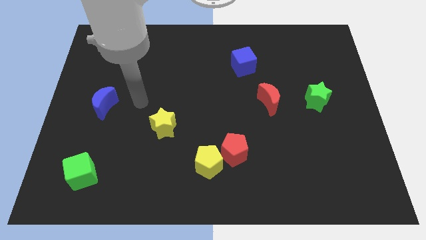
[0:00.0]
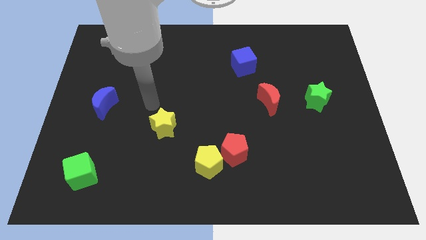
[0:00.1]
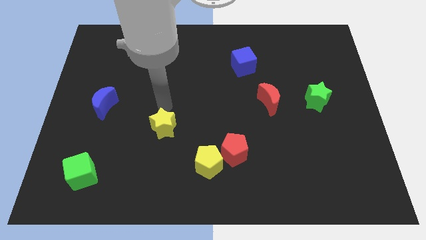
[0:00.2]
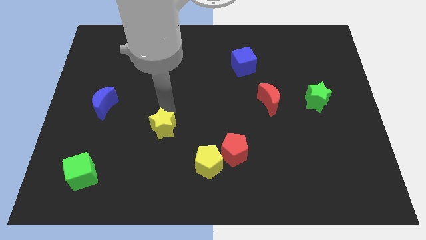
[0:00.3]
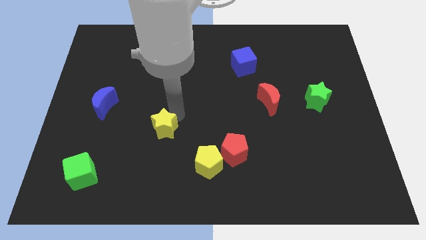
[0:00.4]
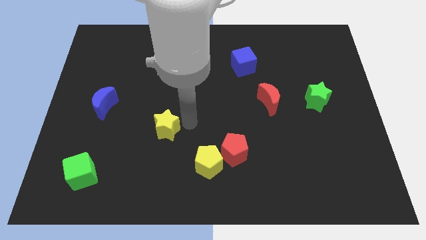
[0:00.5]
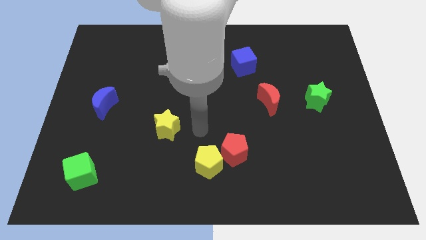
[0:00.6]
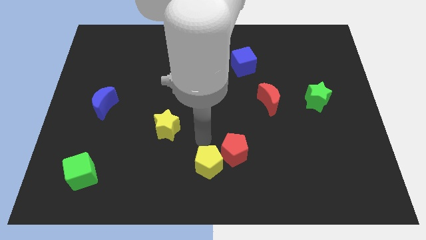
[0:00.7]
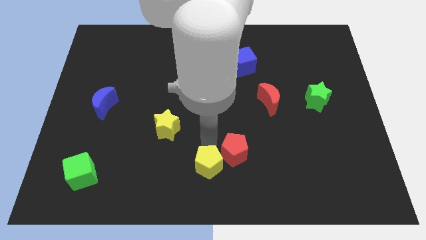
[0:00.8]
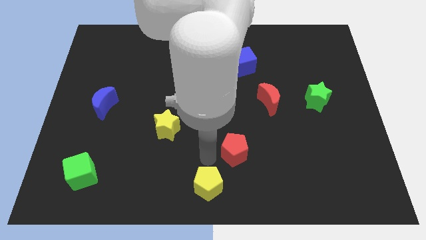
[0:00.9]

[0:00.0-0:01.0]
move the red pentagon away from the yellow pentagon

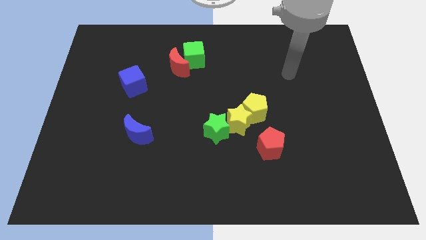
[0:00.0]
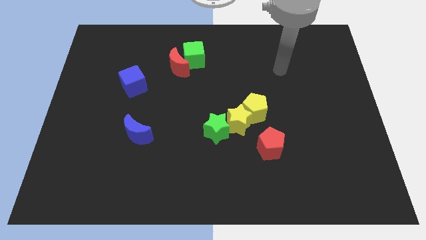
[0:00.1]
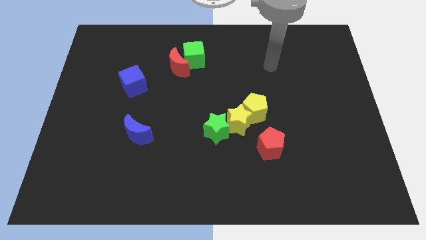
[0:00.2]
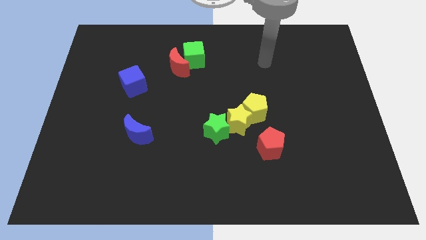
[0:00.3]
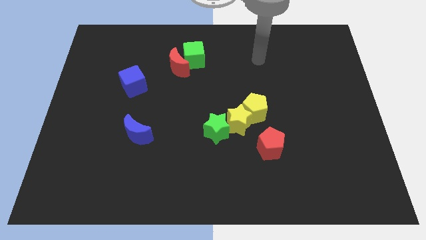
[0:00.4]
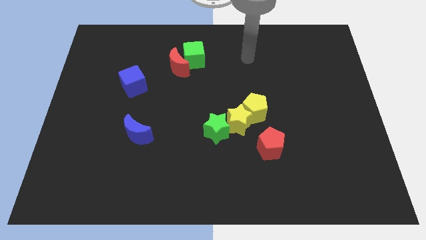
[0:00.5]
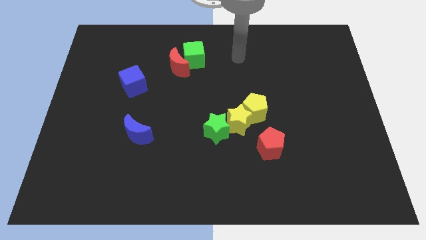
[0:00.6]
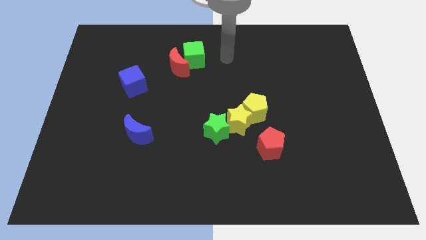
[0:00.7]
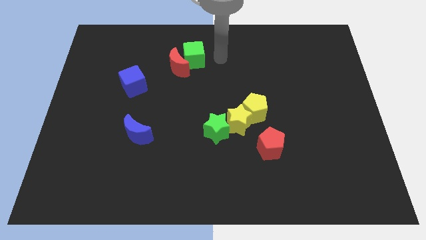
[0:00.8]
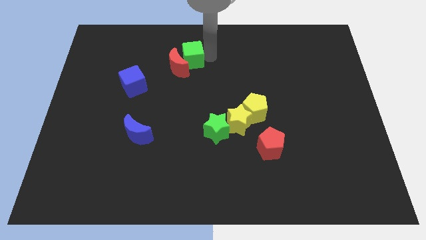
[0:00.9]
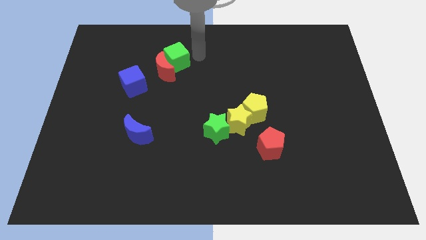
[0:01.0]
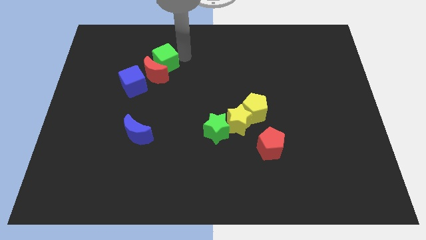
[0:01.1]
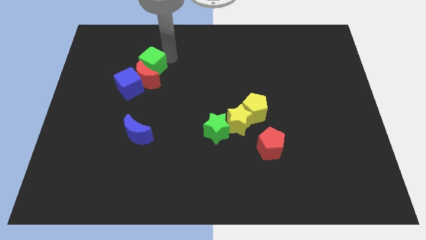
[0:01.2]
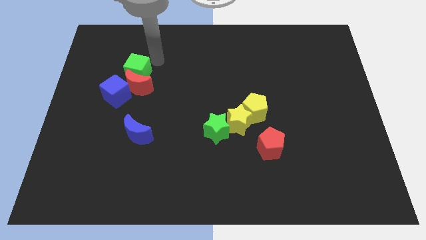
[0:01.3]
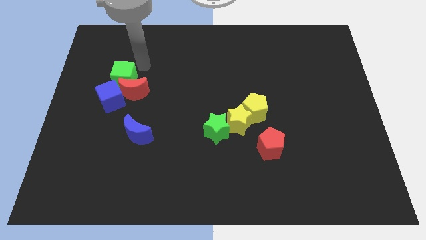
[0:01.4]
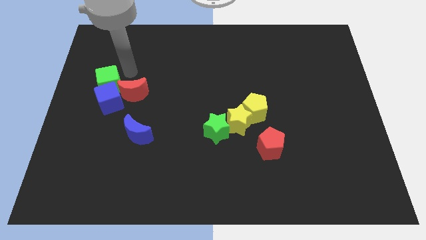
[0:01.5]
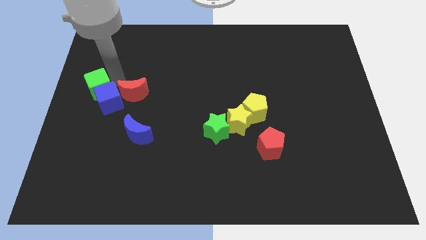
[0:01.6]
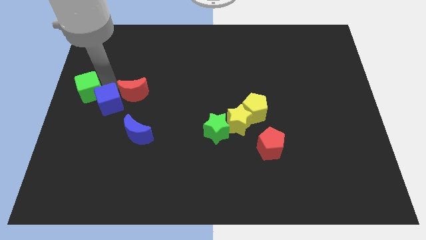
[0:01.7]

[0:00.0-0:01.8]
move the red moon away from the green cube

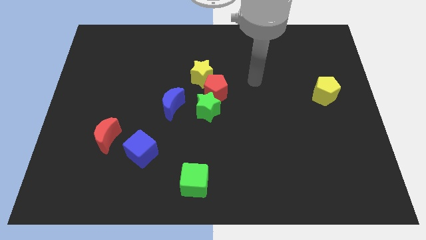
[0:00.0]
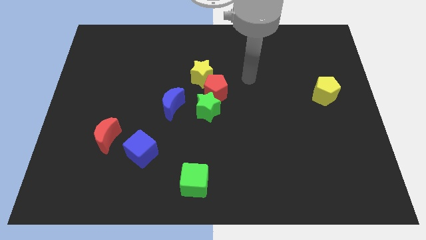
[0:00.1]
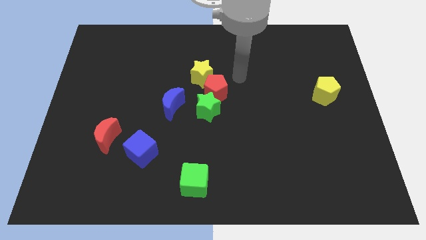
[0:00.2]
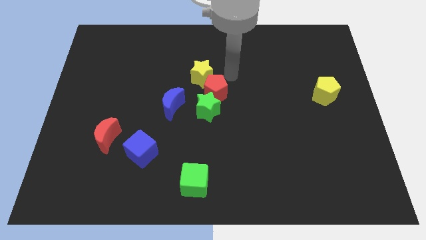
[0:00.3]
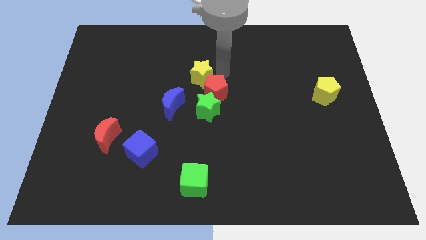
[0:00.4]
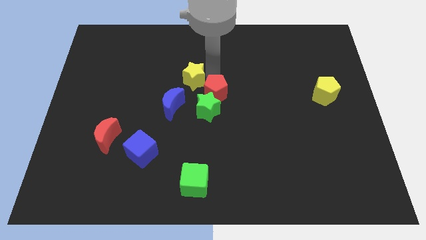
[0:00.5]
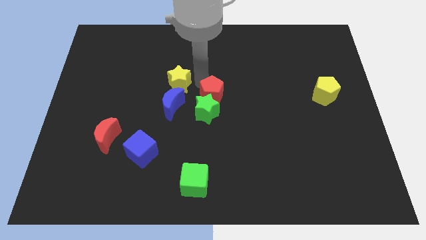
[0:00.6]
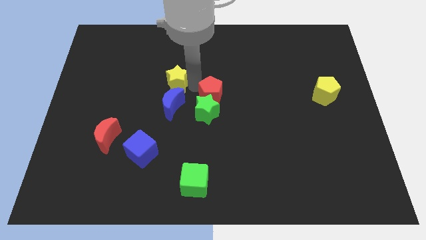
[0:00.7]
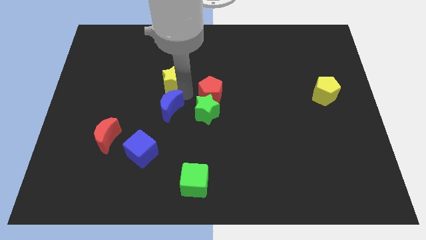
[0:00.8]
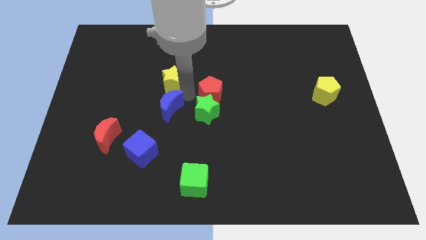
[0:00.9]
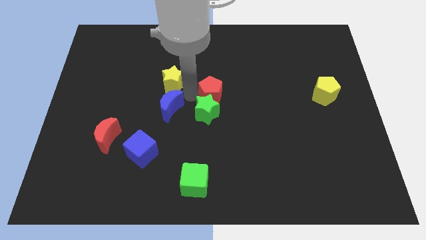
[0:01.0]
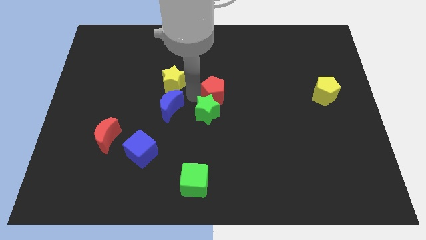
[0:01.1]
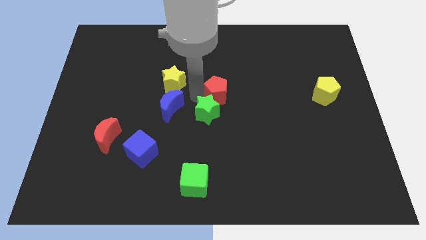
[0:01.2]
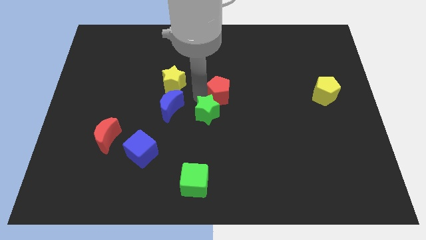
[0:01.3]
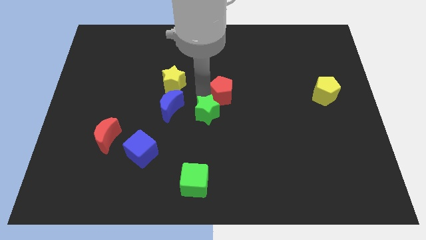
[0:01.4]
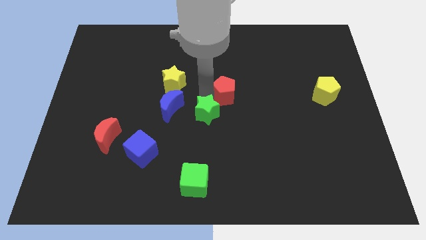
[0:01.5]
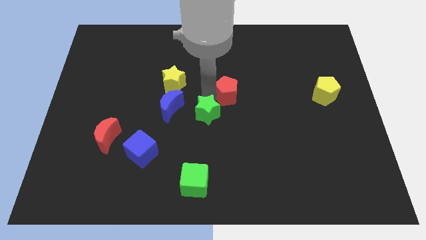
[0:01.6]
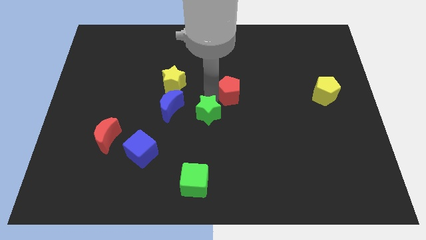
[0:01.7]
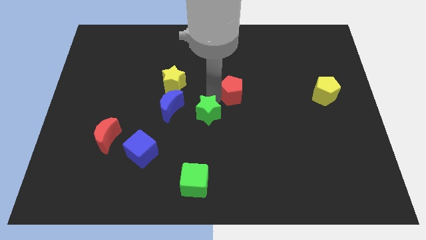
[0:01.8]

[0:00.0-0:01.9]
pull the red pentagon apart from the green star and yellow star

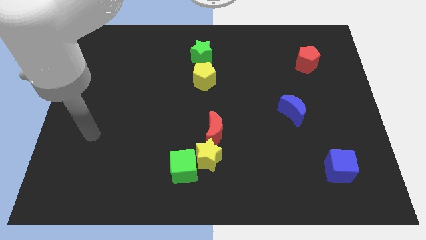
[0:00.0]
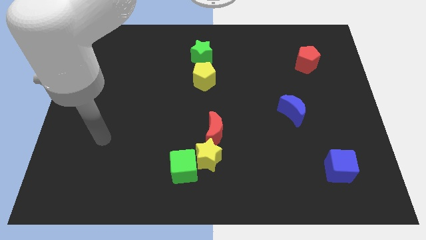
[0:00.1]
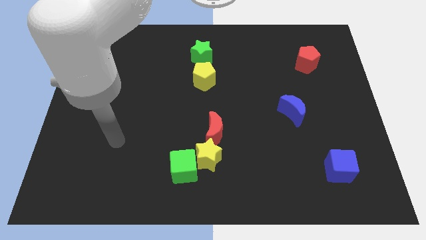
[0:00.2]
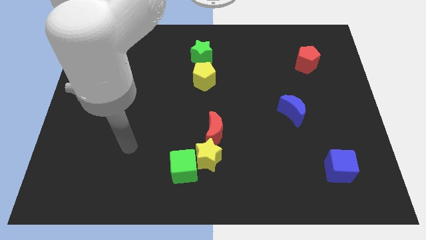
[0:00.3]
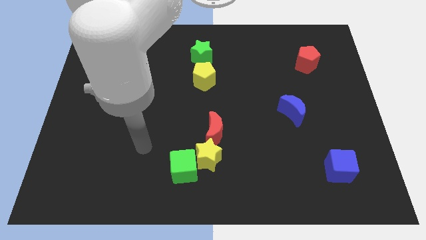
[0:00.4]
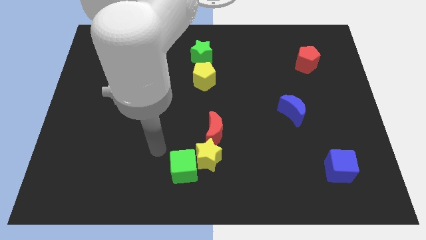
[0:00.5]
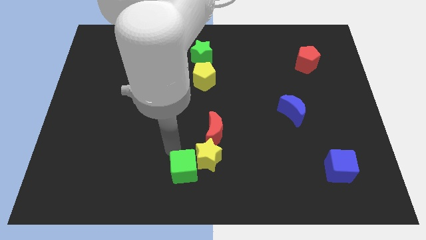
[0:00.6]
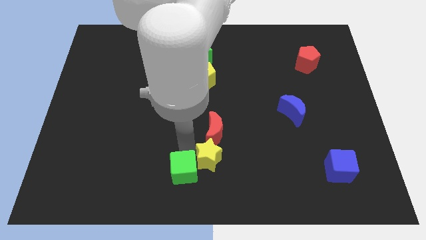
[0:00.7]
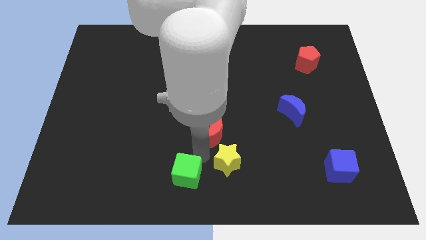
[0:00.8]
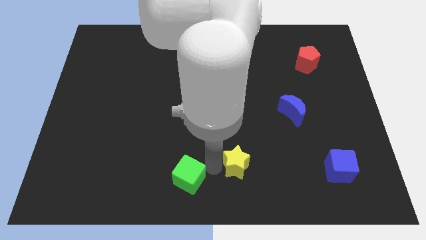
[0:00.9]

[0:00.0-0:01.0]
pull the green cube apart from the yellow star

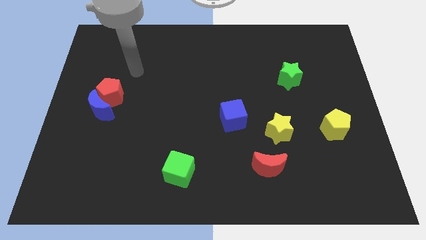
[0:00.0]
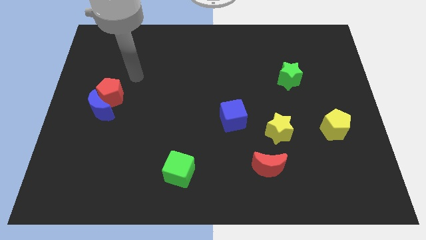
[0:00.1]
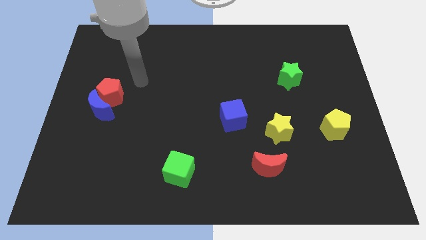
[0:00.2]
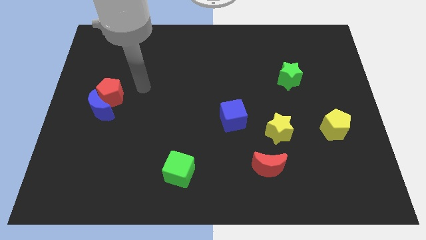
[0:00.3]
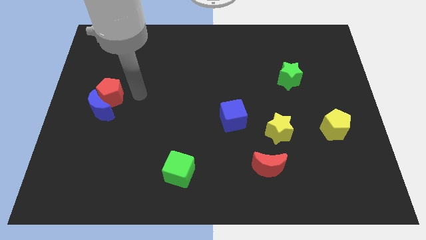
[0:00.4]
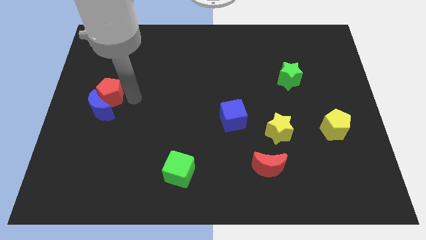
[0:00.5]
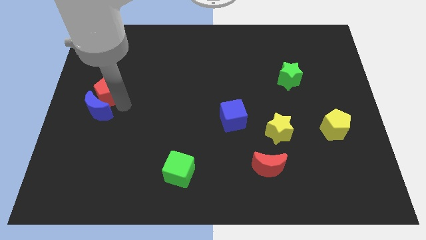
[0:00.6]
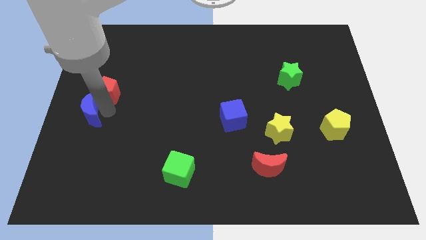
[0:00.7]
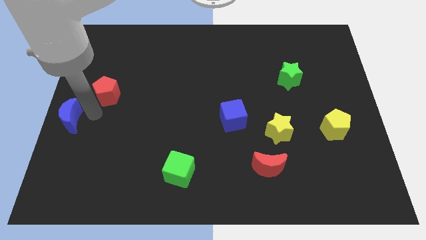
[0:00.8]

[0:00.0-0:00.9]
separate the red pentagon from the blue moon

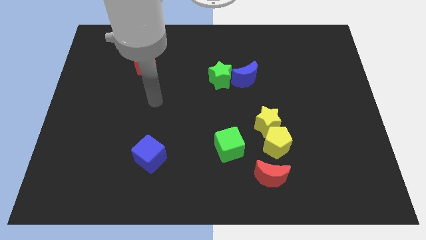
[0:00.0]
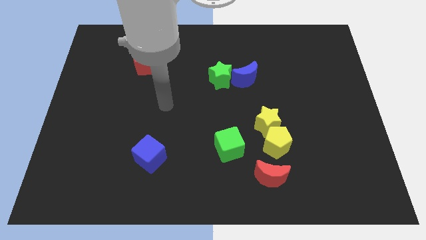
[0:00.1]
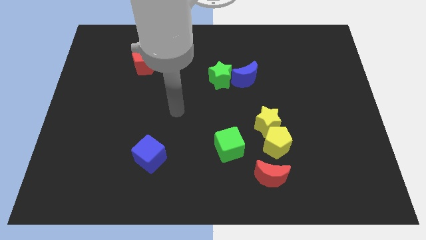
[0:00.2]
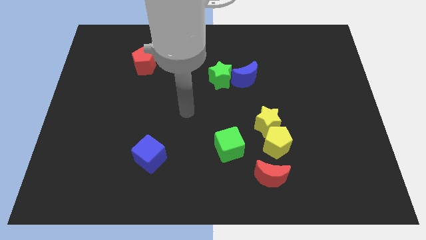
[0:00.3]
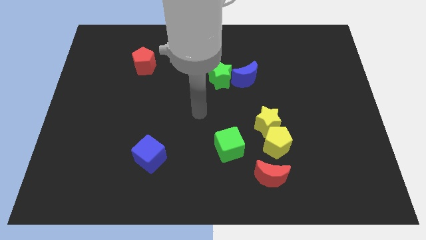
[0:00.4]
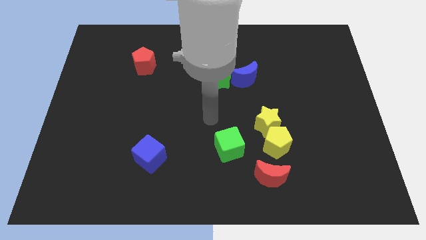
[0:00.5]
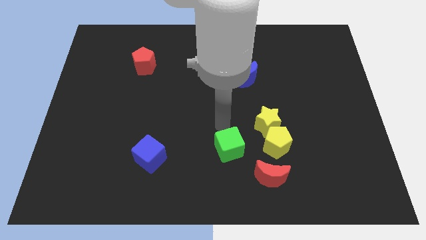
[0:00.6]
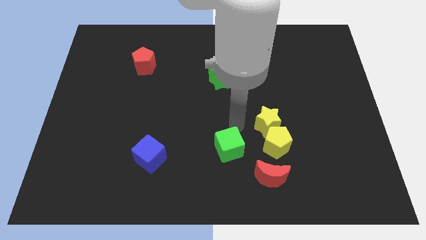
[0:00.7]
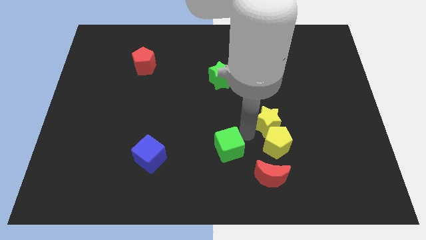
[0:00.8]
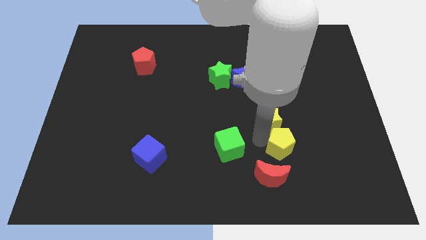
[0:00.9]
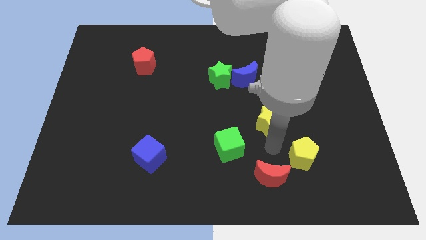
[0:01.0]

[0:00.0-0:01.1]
pull the yellow star apart from the yellow pentagon

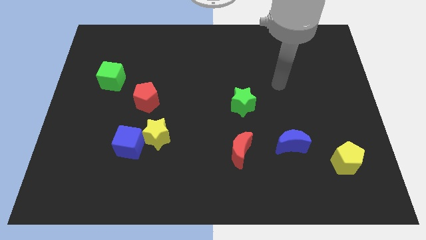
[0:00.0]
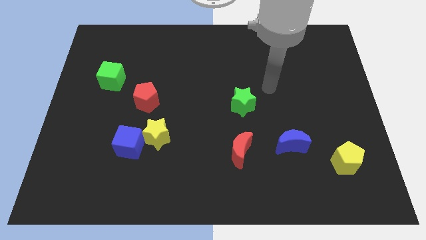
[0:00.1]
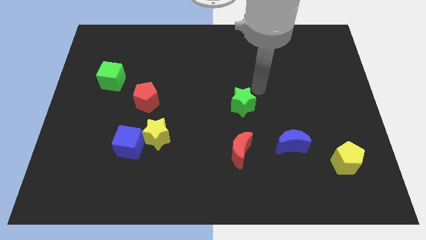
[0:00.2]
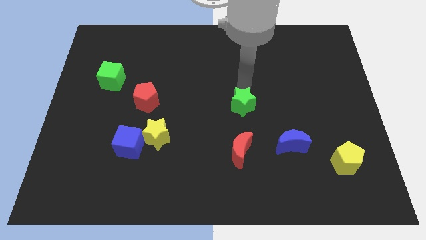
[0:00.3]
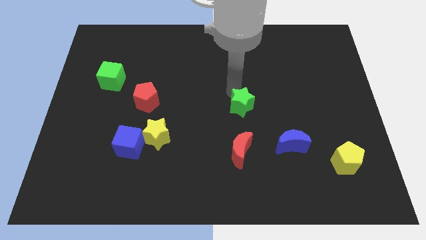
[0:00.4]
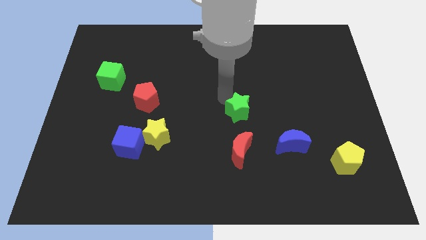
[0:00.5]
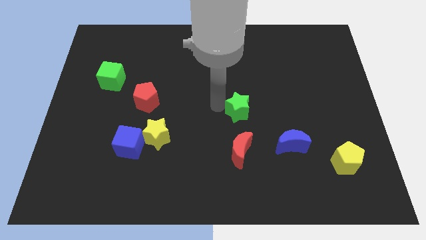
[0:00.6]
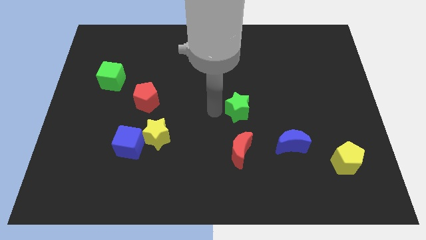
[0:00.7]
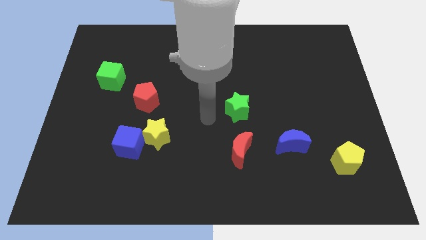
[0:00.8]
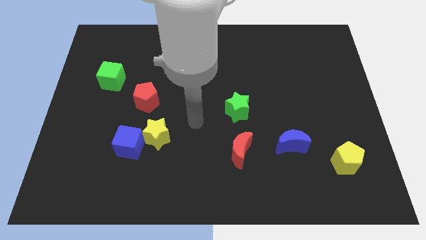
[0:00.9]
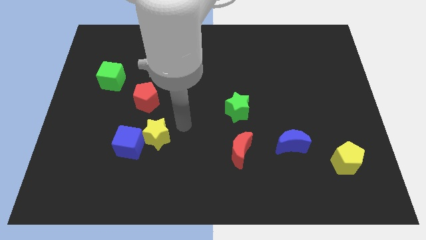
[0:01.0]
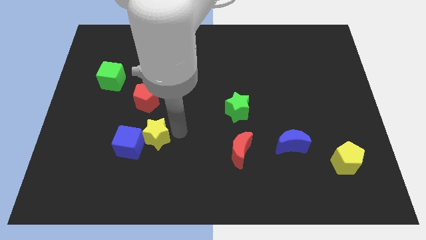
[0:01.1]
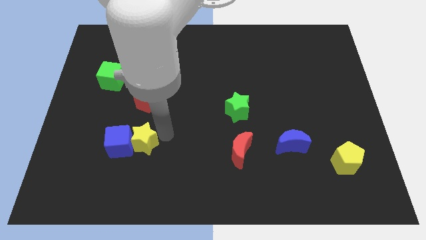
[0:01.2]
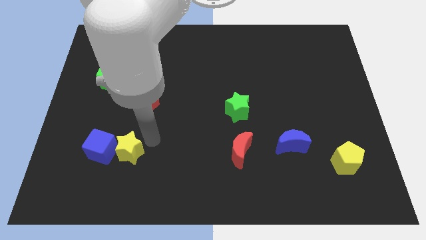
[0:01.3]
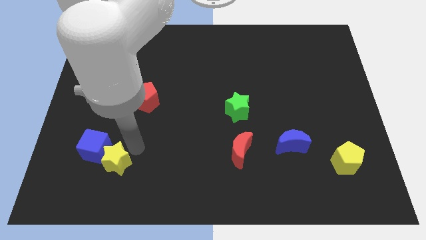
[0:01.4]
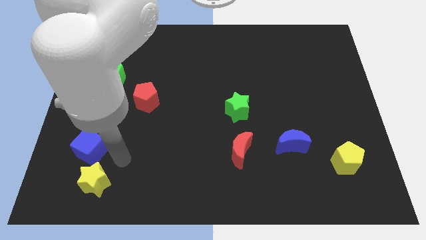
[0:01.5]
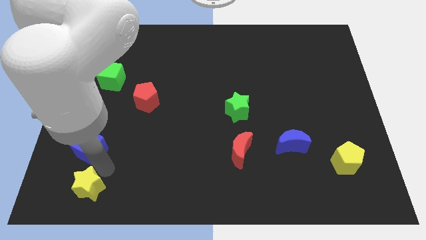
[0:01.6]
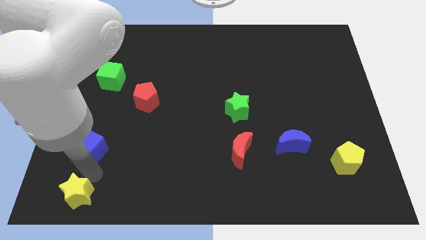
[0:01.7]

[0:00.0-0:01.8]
separate the blue cube from the yellow star

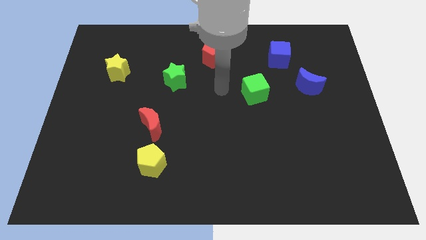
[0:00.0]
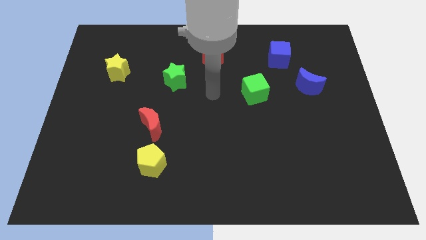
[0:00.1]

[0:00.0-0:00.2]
move the red moon away from the yellow pentagon
